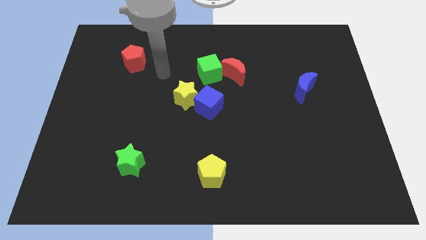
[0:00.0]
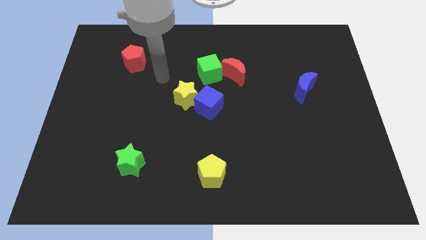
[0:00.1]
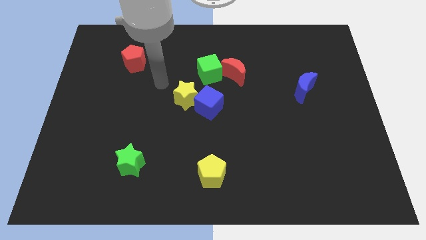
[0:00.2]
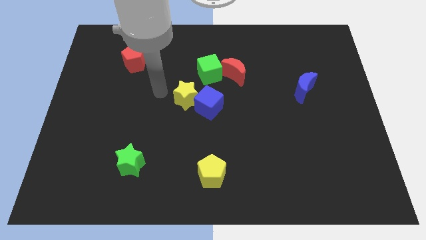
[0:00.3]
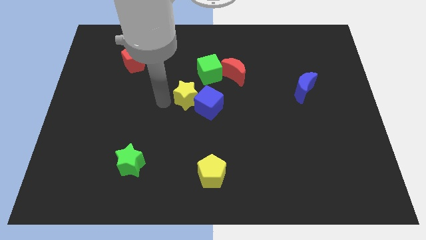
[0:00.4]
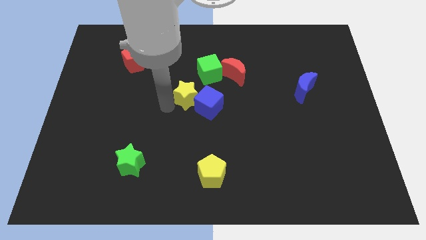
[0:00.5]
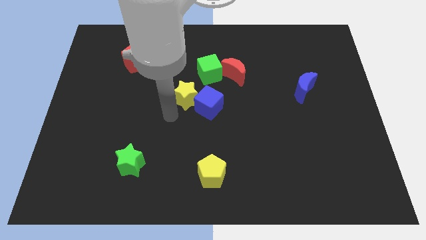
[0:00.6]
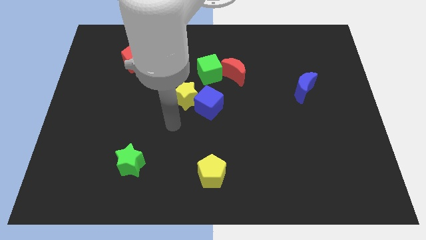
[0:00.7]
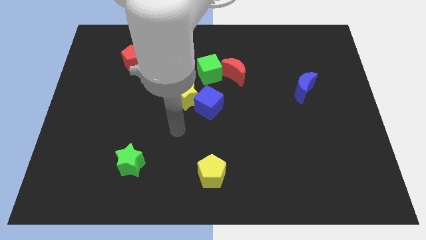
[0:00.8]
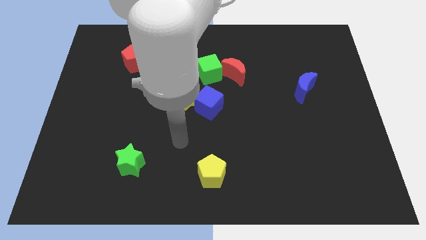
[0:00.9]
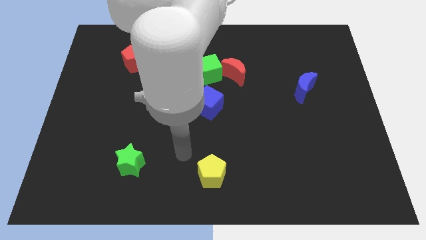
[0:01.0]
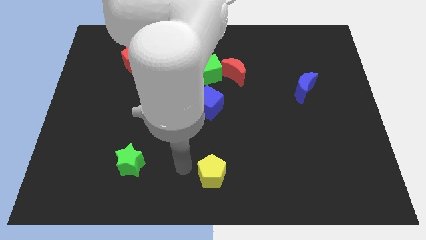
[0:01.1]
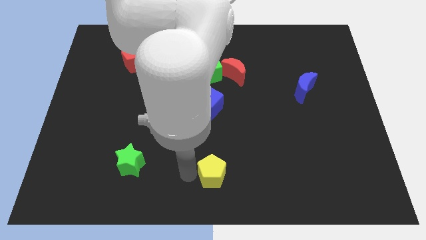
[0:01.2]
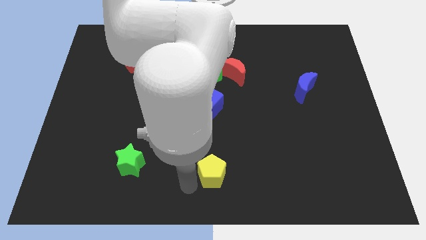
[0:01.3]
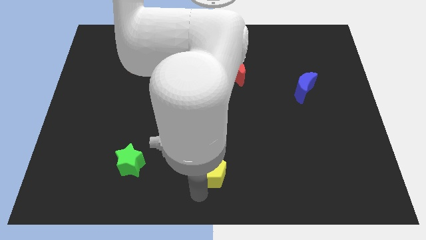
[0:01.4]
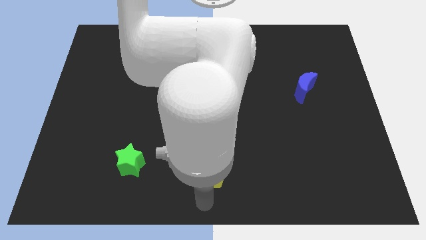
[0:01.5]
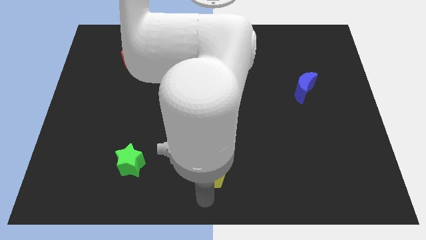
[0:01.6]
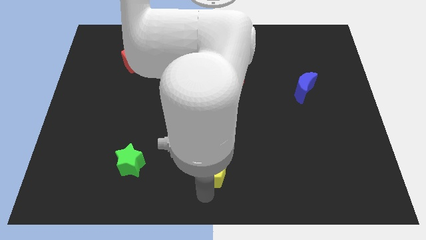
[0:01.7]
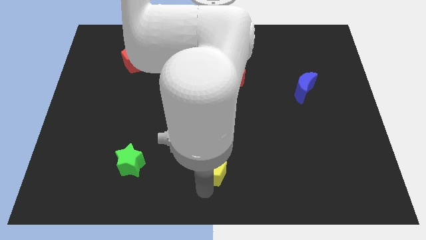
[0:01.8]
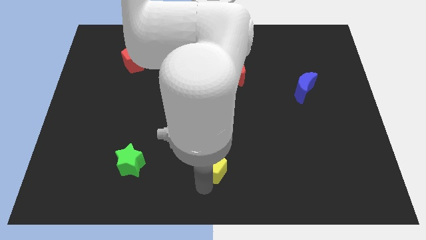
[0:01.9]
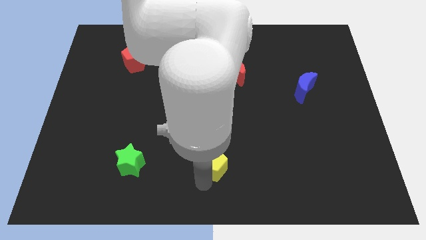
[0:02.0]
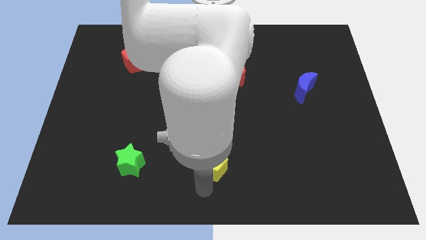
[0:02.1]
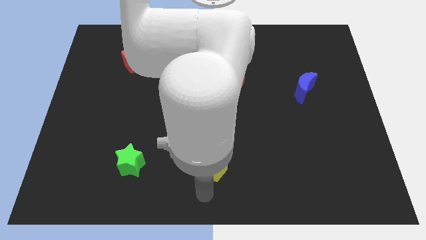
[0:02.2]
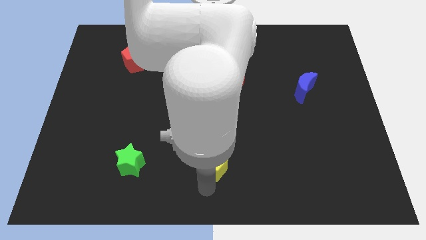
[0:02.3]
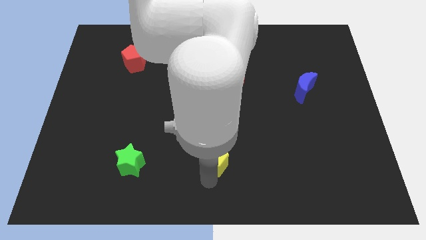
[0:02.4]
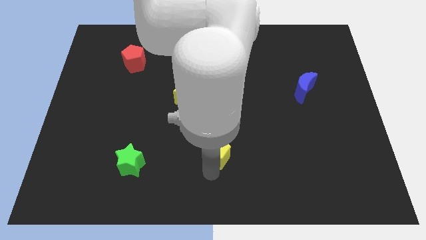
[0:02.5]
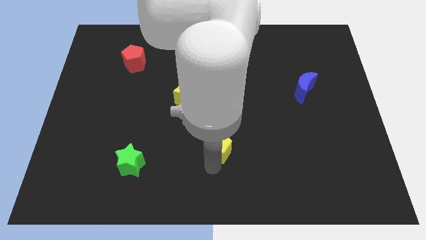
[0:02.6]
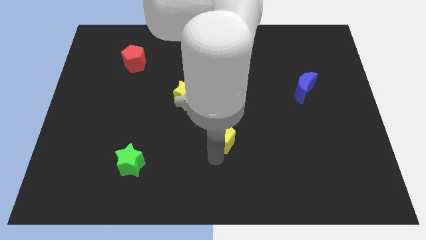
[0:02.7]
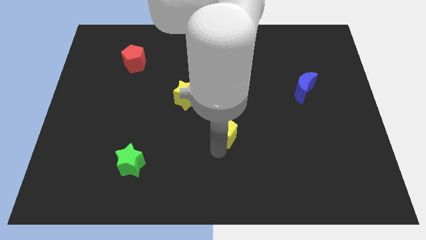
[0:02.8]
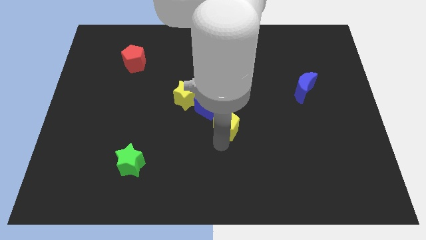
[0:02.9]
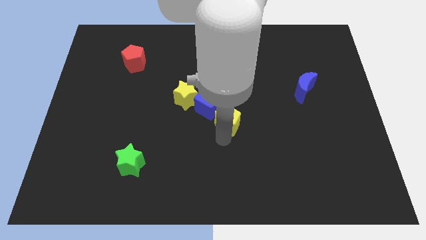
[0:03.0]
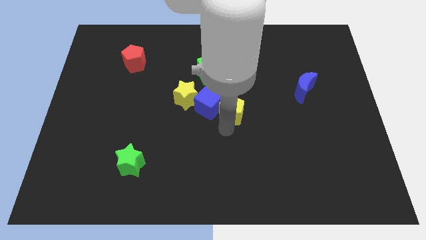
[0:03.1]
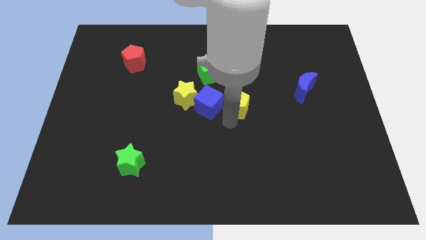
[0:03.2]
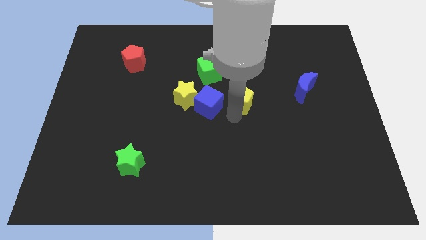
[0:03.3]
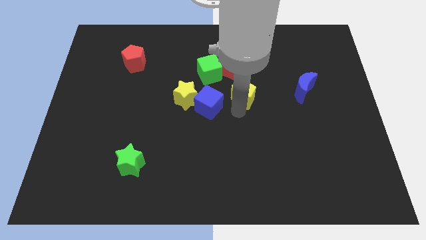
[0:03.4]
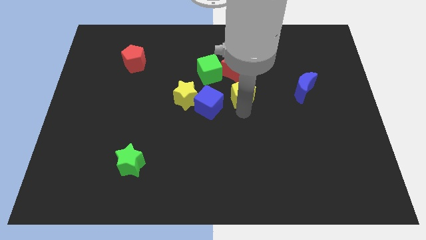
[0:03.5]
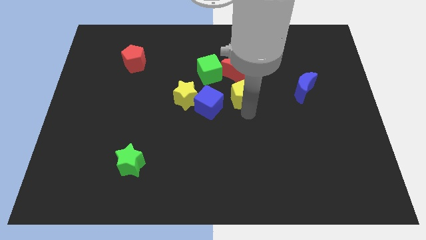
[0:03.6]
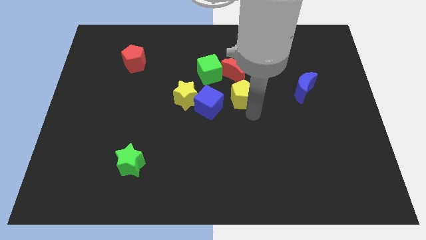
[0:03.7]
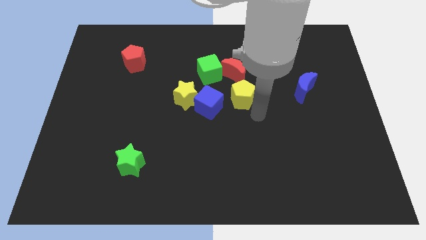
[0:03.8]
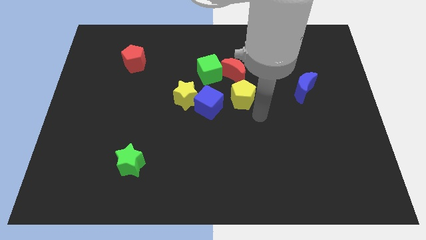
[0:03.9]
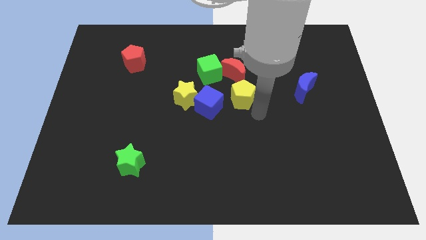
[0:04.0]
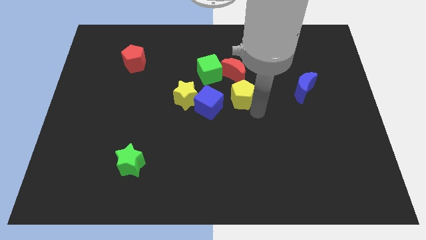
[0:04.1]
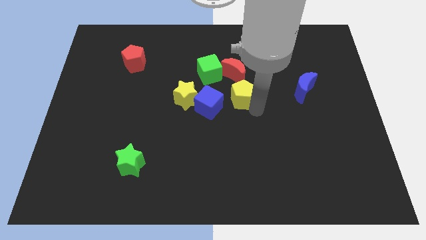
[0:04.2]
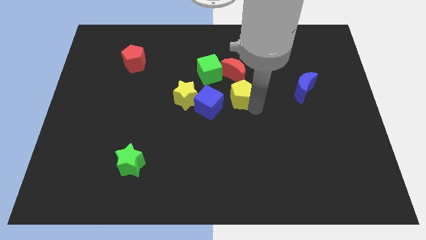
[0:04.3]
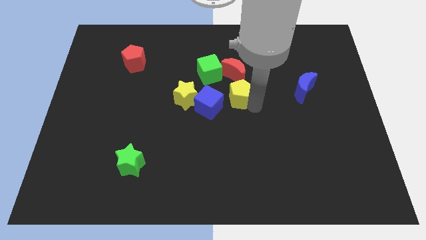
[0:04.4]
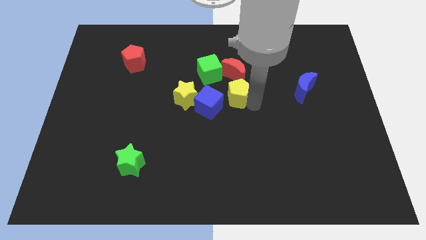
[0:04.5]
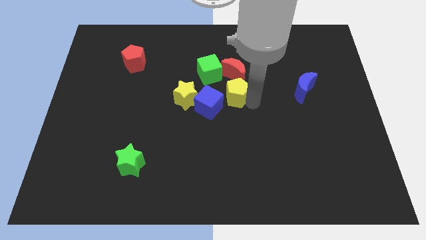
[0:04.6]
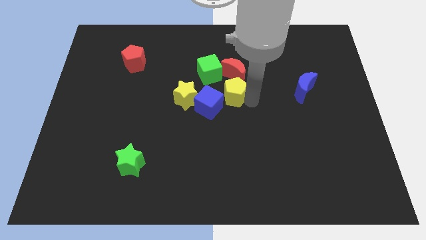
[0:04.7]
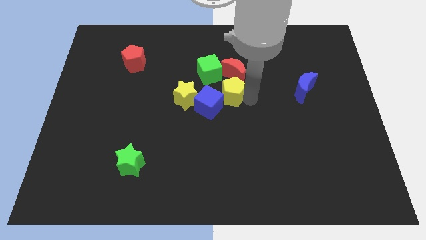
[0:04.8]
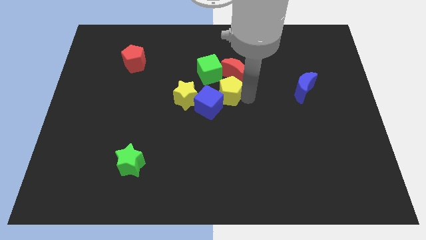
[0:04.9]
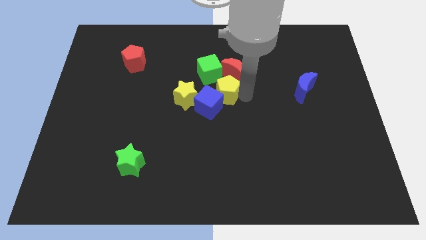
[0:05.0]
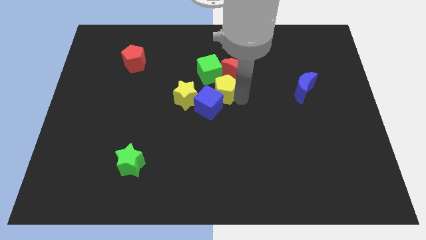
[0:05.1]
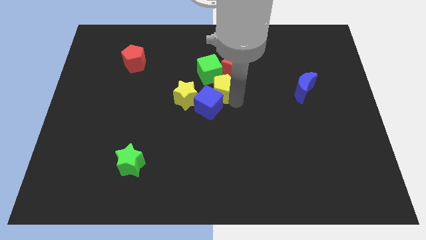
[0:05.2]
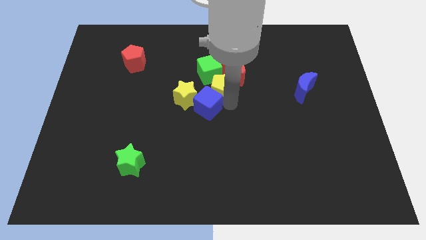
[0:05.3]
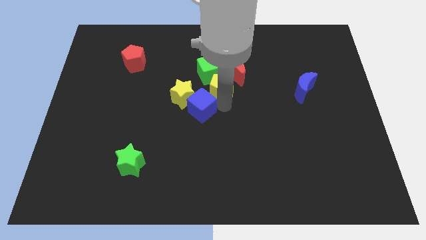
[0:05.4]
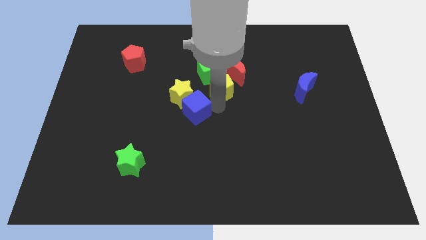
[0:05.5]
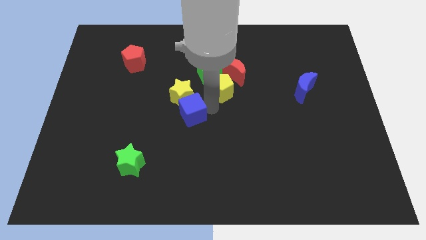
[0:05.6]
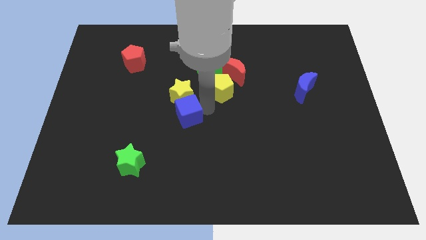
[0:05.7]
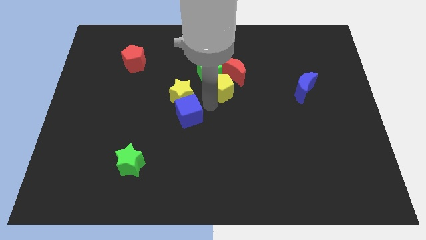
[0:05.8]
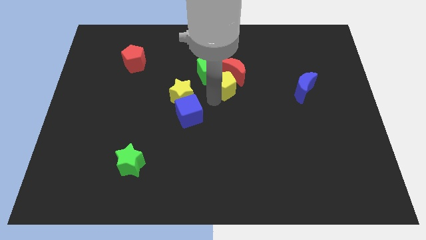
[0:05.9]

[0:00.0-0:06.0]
push the yellow pentagon to the red moon

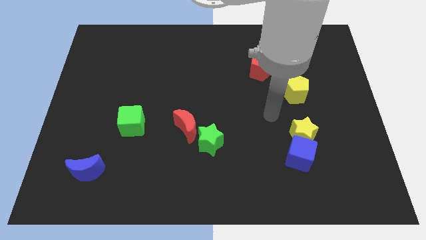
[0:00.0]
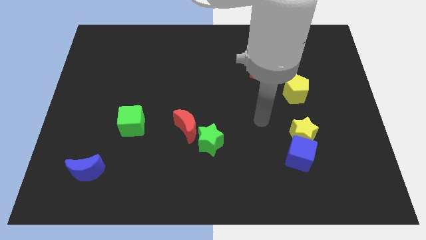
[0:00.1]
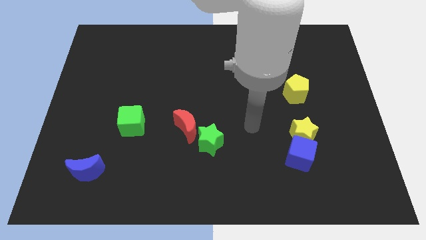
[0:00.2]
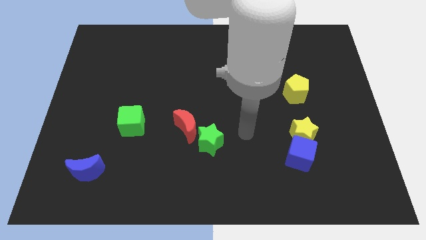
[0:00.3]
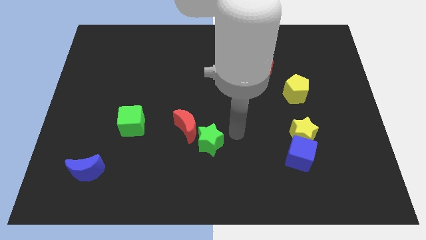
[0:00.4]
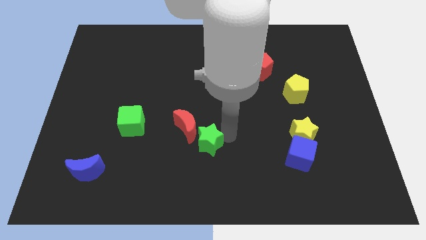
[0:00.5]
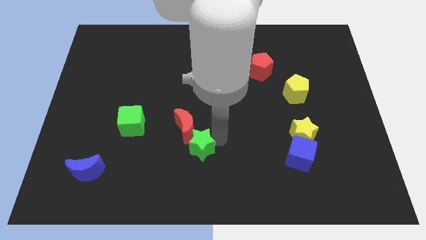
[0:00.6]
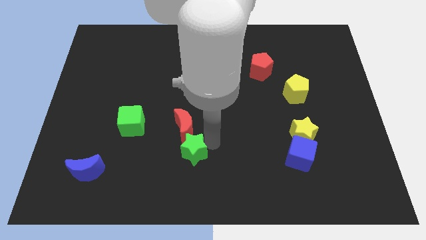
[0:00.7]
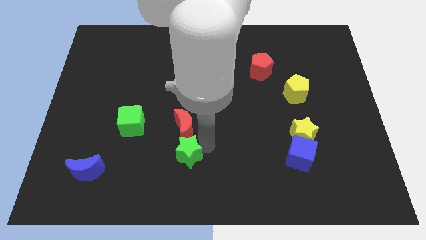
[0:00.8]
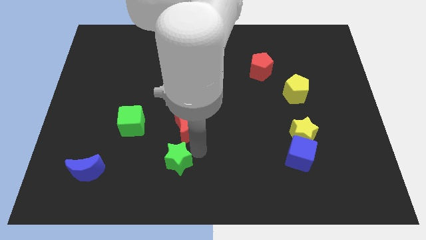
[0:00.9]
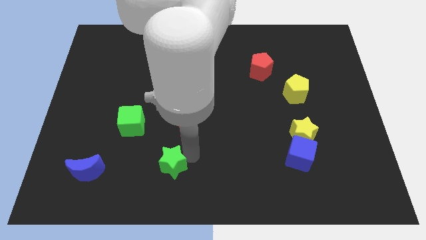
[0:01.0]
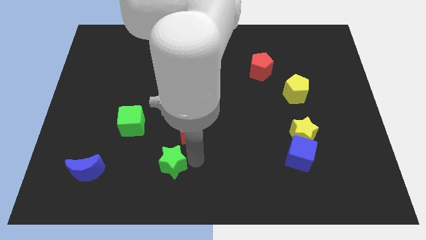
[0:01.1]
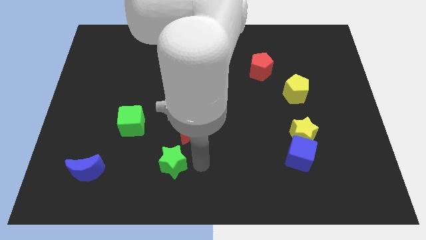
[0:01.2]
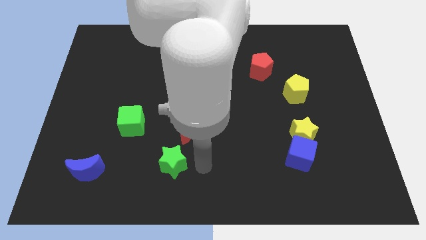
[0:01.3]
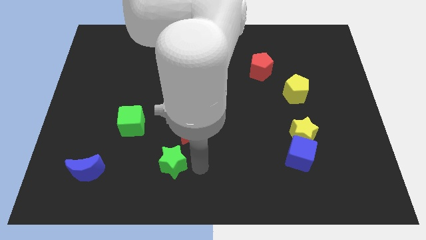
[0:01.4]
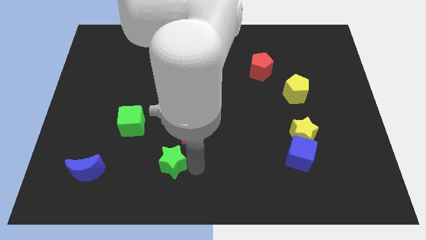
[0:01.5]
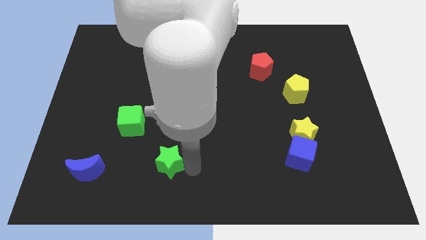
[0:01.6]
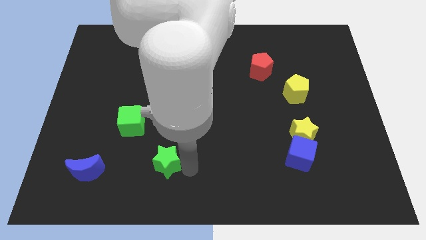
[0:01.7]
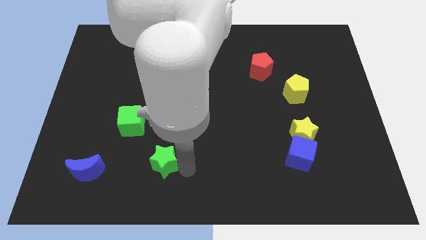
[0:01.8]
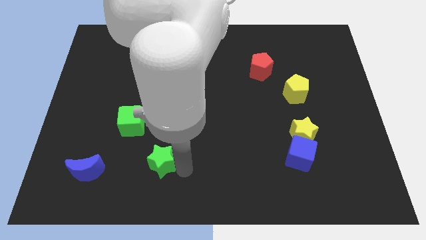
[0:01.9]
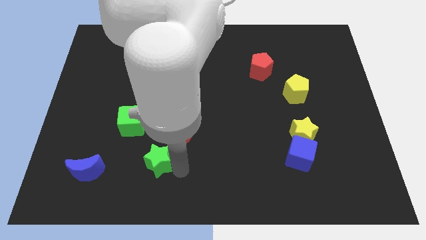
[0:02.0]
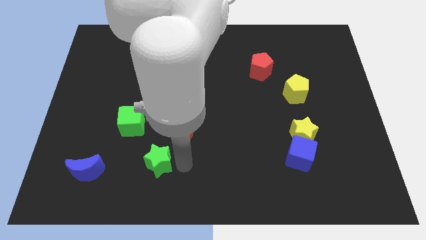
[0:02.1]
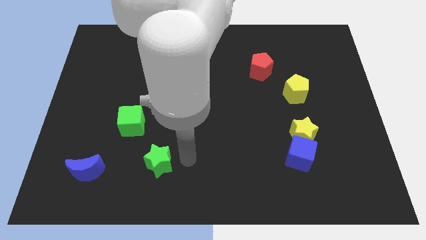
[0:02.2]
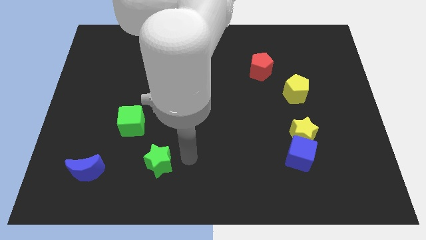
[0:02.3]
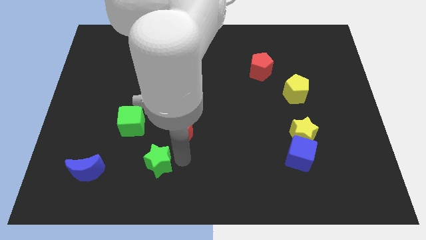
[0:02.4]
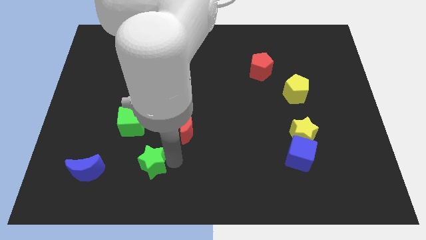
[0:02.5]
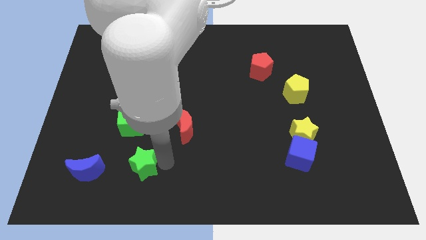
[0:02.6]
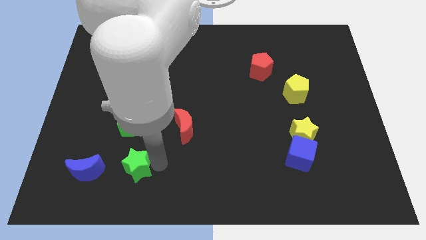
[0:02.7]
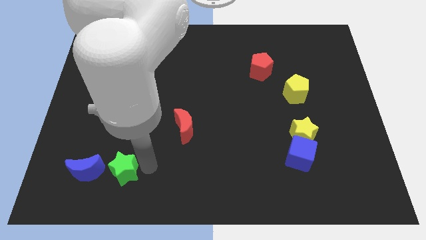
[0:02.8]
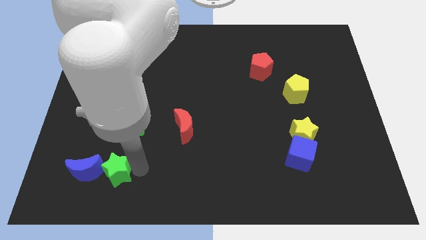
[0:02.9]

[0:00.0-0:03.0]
slide the green star close to the blue moon
